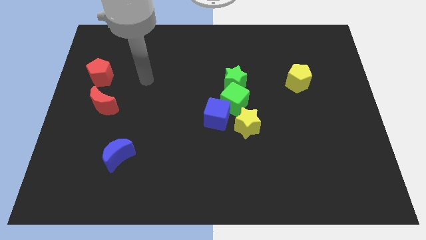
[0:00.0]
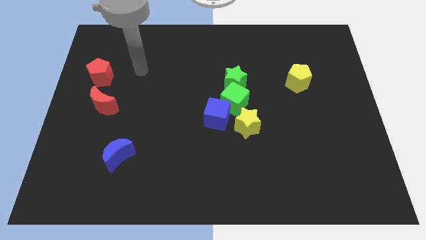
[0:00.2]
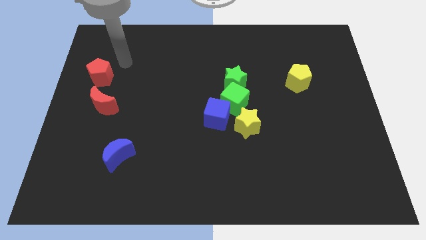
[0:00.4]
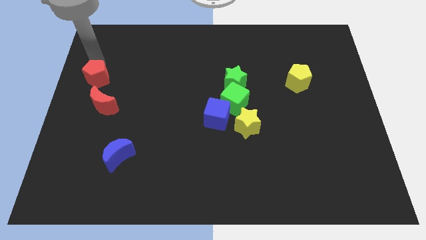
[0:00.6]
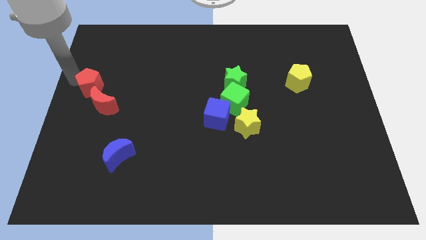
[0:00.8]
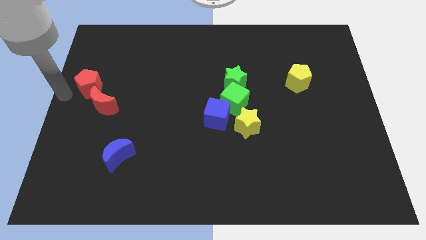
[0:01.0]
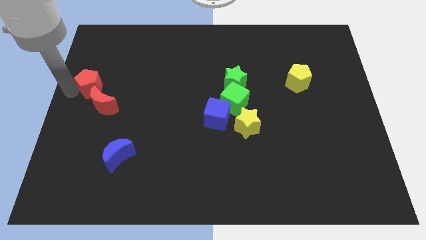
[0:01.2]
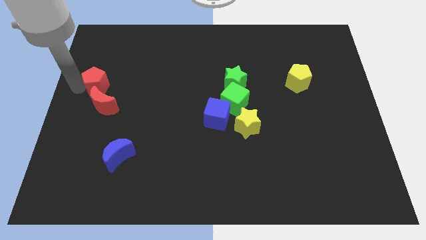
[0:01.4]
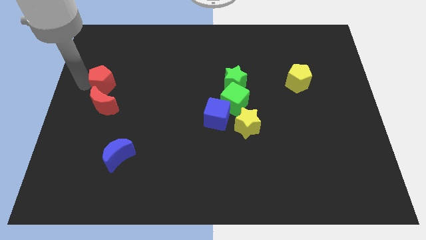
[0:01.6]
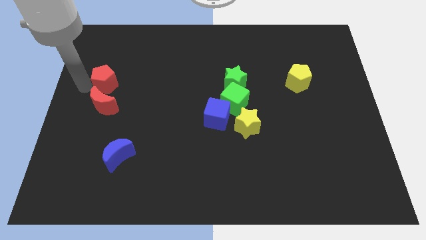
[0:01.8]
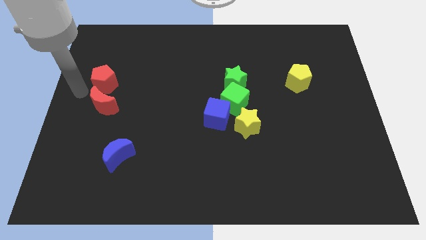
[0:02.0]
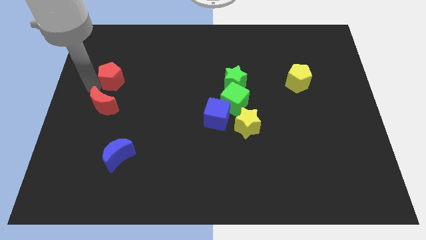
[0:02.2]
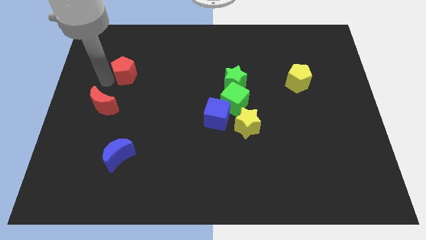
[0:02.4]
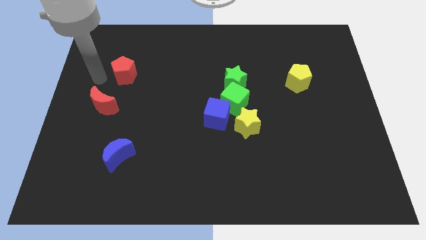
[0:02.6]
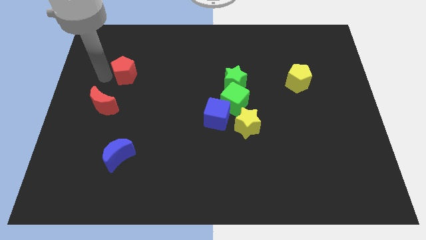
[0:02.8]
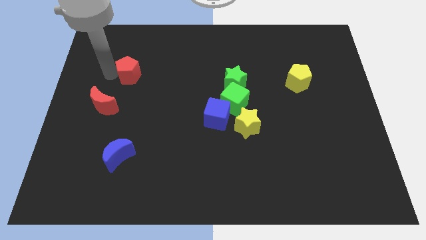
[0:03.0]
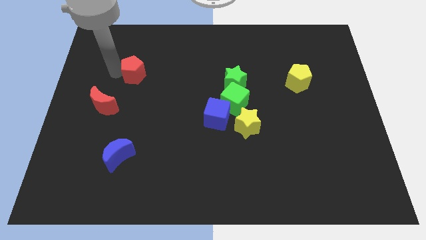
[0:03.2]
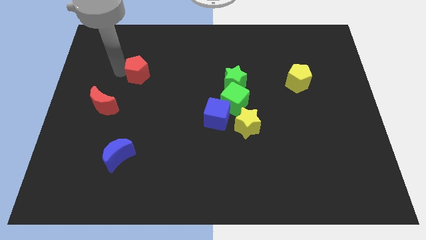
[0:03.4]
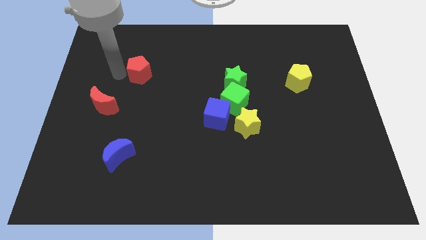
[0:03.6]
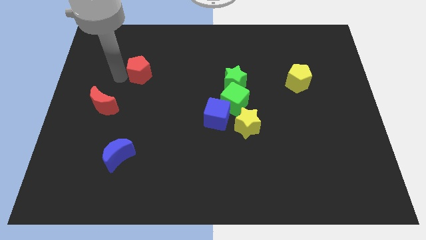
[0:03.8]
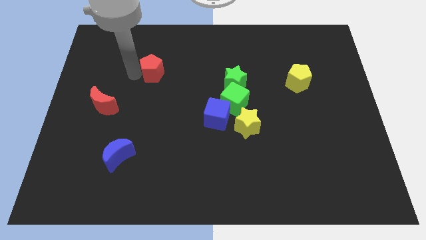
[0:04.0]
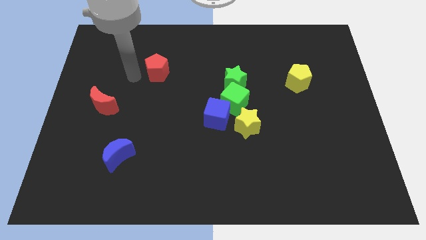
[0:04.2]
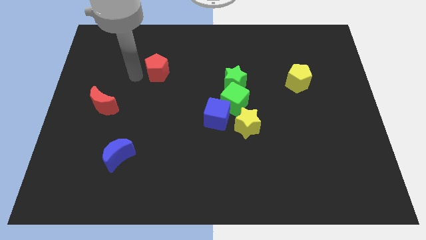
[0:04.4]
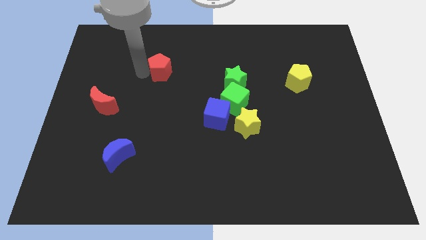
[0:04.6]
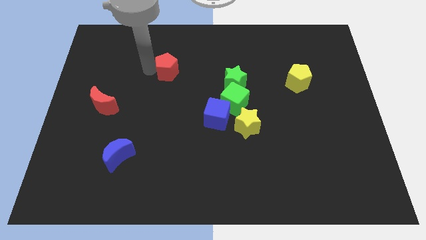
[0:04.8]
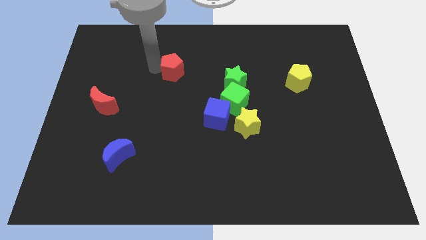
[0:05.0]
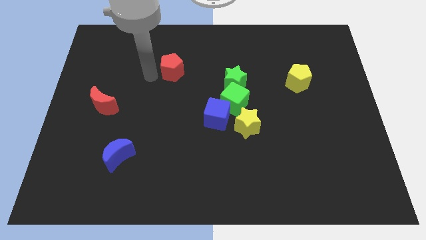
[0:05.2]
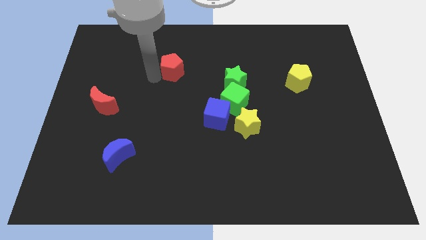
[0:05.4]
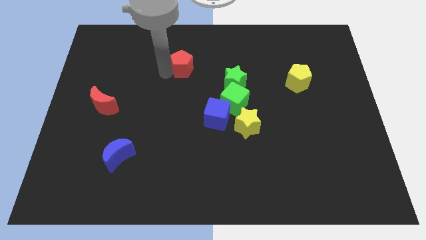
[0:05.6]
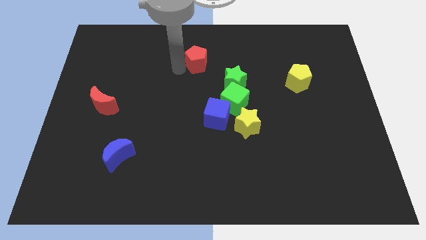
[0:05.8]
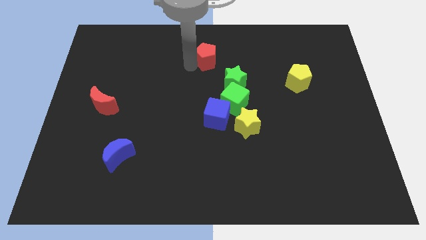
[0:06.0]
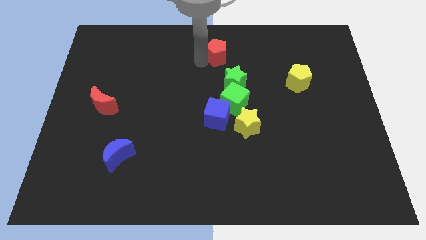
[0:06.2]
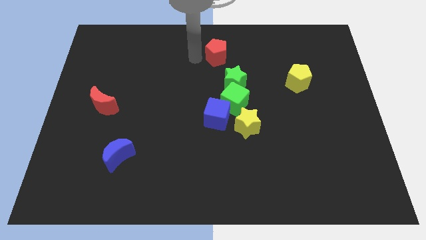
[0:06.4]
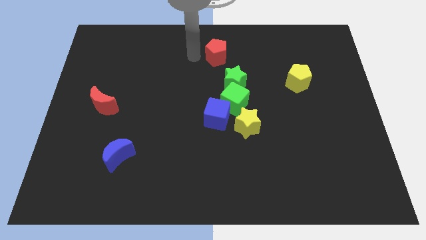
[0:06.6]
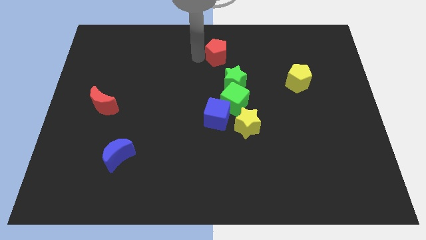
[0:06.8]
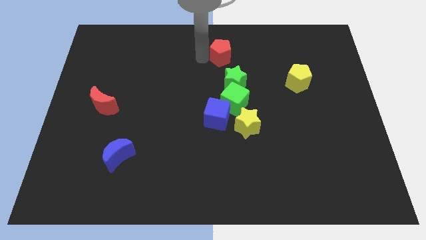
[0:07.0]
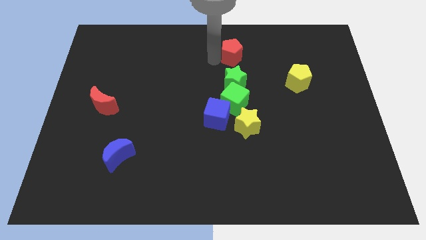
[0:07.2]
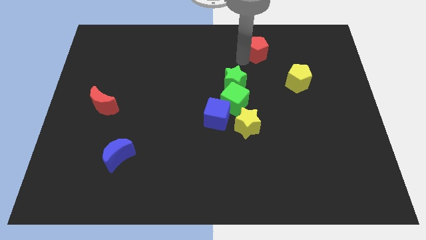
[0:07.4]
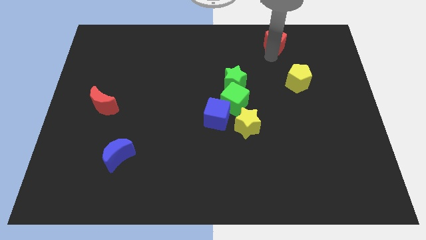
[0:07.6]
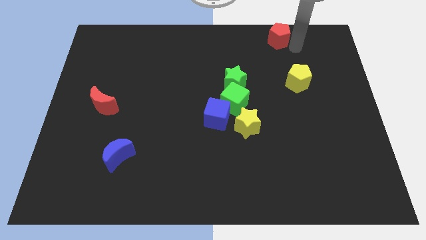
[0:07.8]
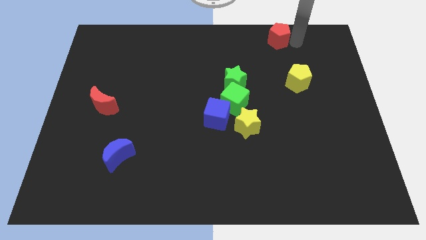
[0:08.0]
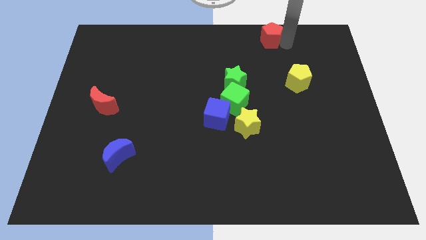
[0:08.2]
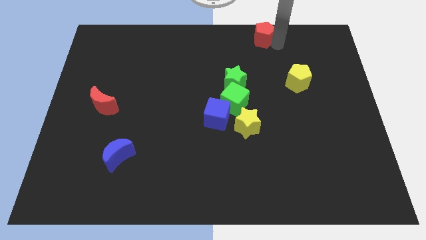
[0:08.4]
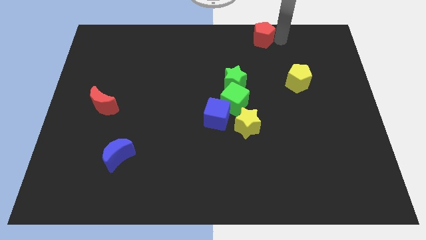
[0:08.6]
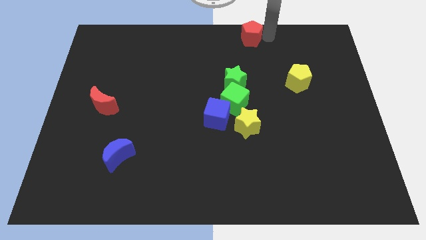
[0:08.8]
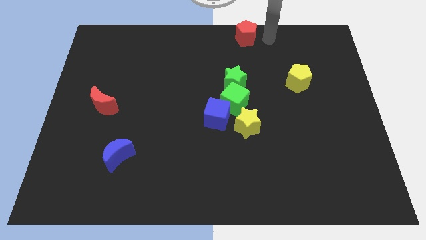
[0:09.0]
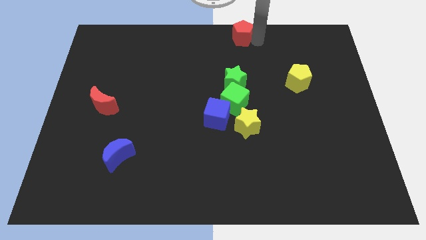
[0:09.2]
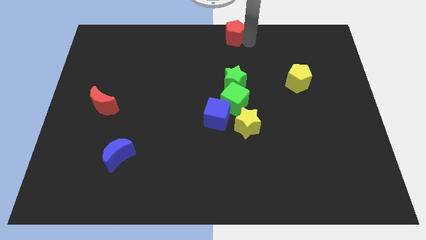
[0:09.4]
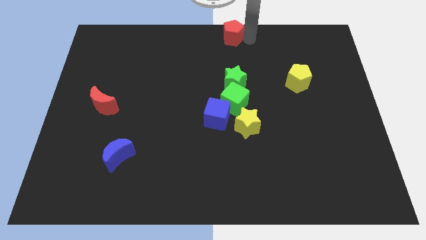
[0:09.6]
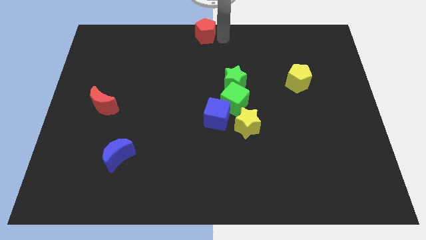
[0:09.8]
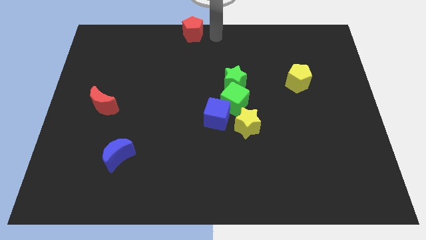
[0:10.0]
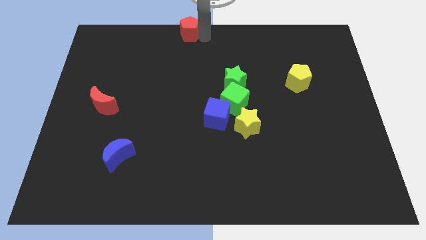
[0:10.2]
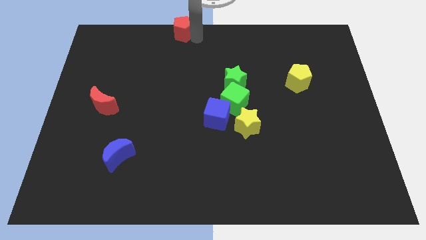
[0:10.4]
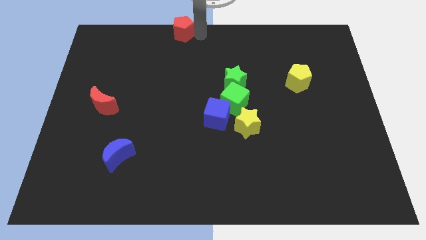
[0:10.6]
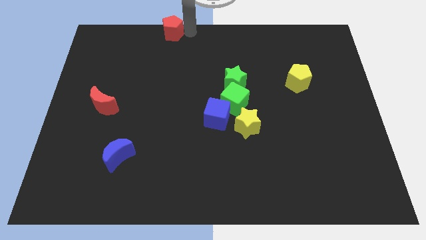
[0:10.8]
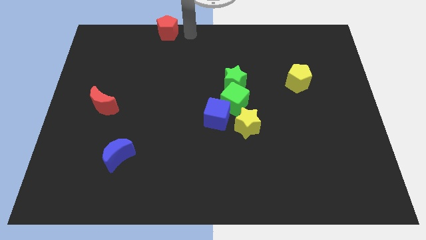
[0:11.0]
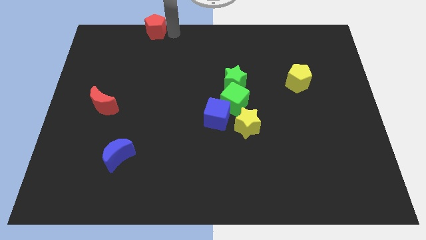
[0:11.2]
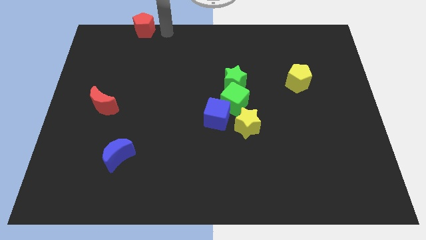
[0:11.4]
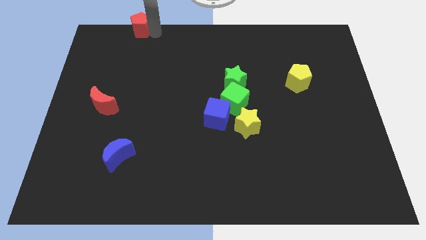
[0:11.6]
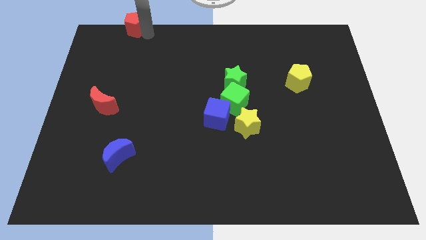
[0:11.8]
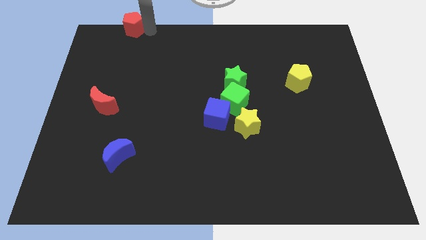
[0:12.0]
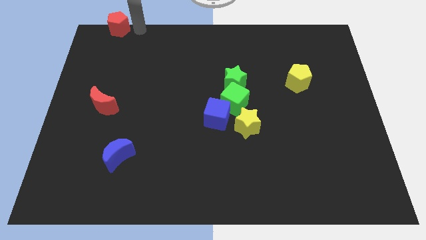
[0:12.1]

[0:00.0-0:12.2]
slide the red pentagon to the top left
